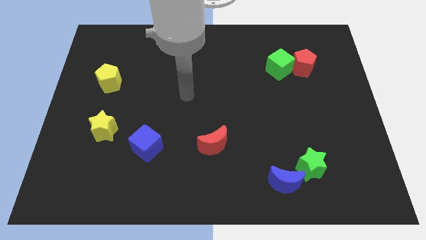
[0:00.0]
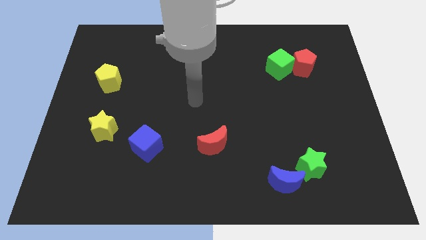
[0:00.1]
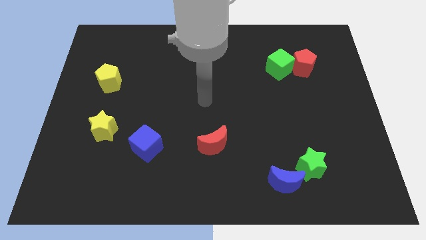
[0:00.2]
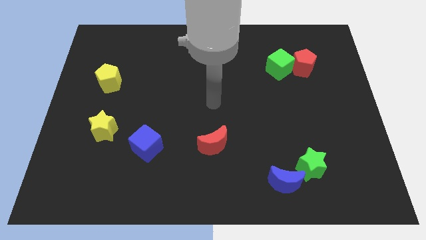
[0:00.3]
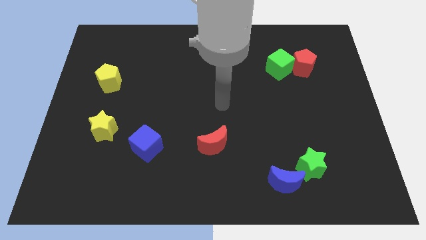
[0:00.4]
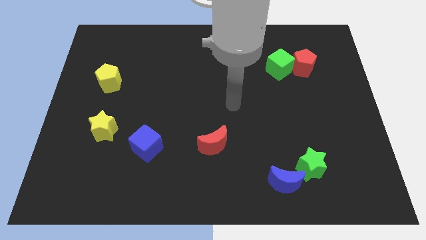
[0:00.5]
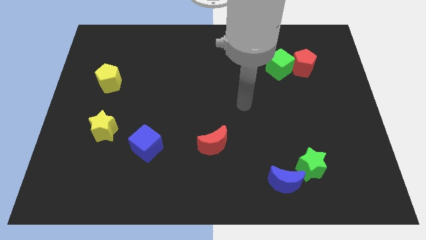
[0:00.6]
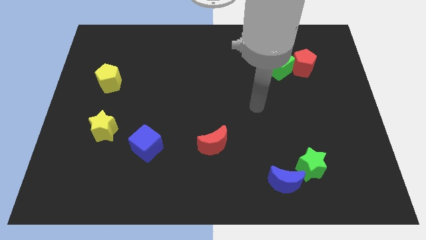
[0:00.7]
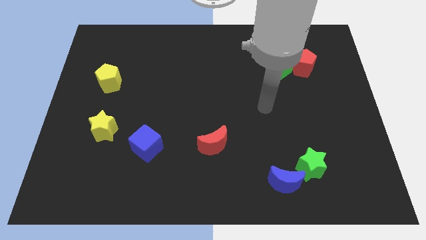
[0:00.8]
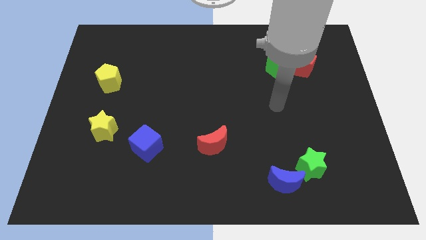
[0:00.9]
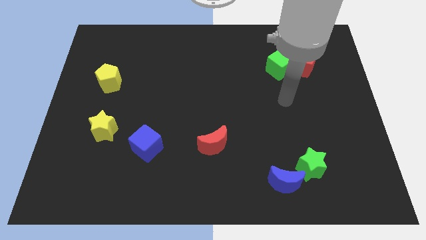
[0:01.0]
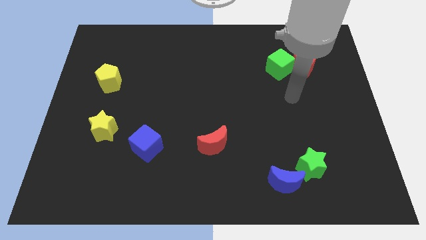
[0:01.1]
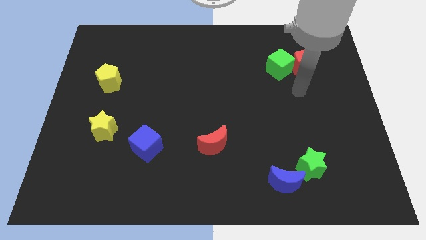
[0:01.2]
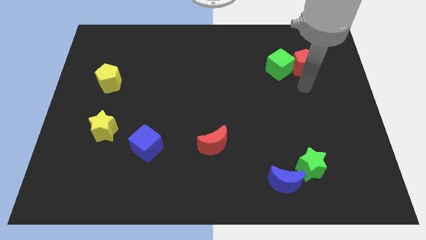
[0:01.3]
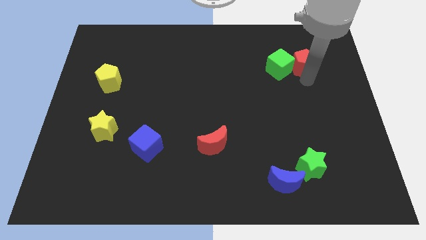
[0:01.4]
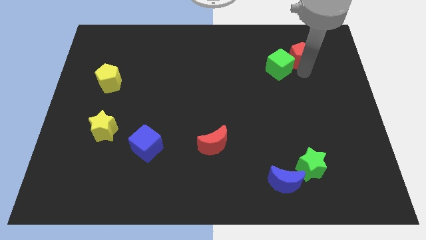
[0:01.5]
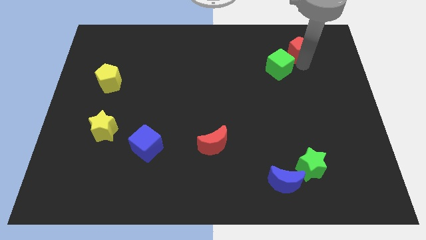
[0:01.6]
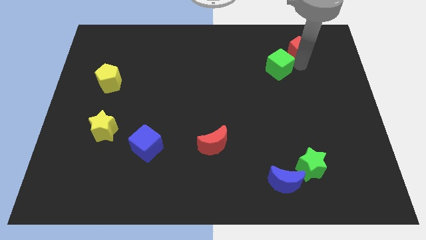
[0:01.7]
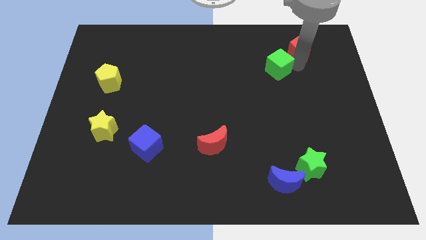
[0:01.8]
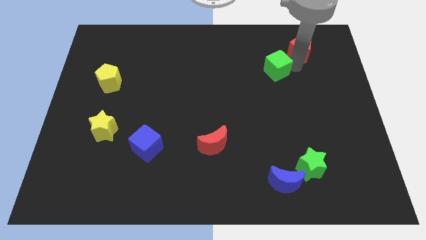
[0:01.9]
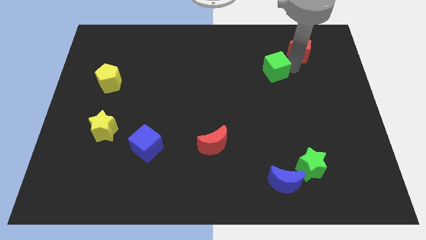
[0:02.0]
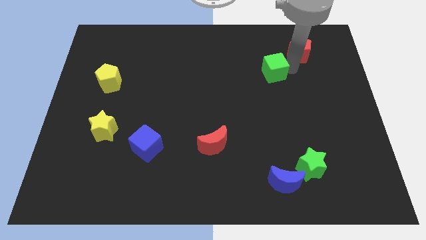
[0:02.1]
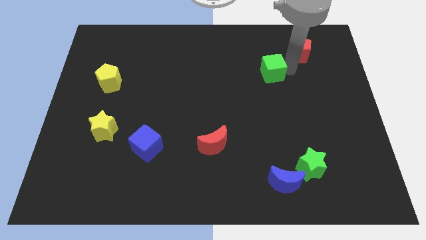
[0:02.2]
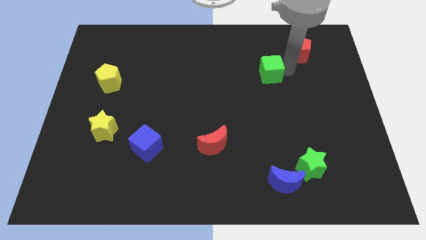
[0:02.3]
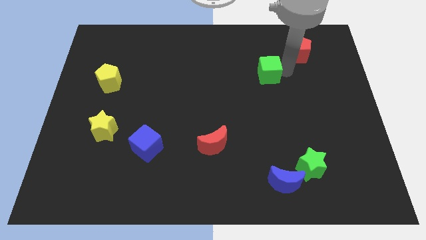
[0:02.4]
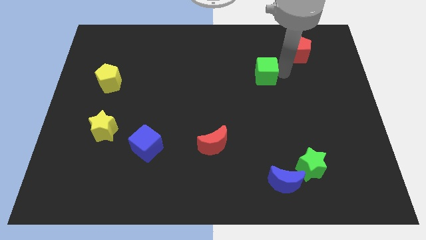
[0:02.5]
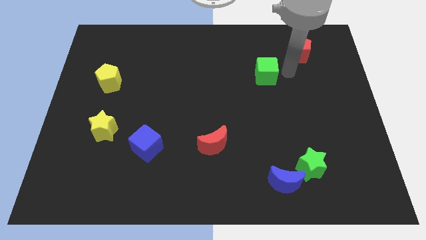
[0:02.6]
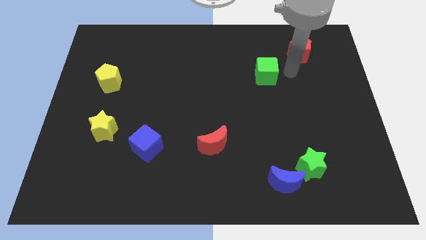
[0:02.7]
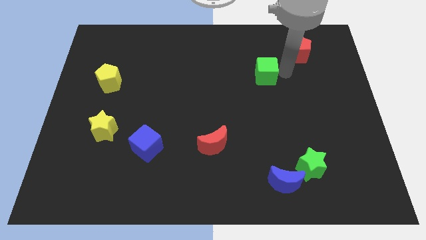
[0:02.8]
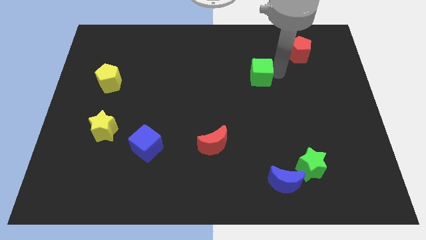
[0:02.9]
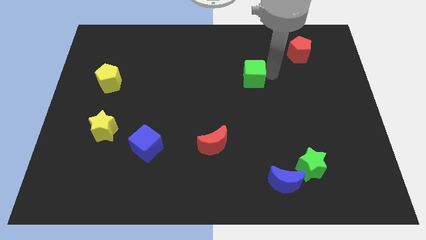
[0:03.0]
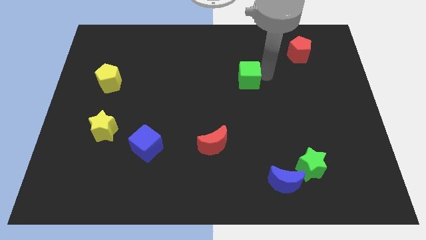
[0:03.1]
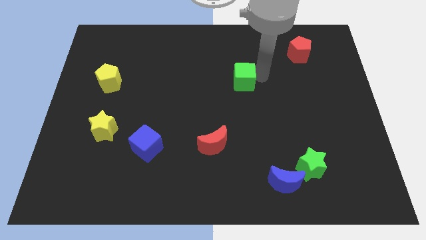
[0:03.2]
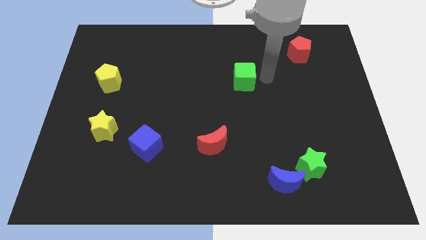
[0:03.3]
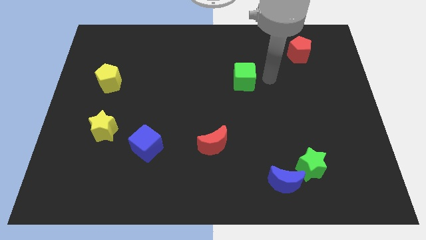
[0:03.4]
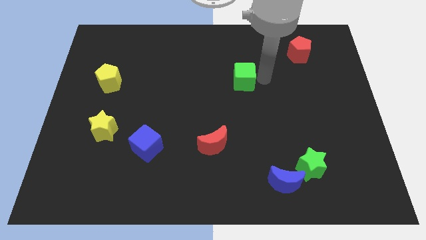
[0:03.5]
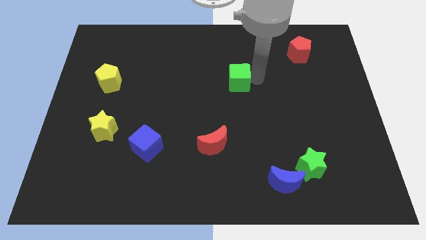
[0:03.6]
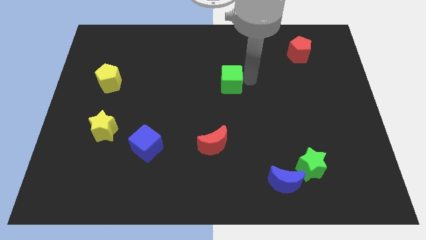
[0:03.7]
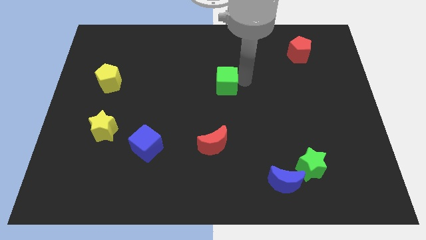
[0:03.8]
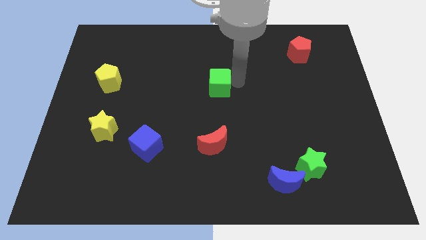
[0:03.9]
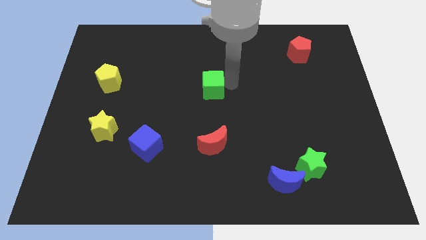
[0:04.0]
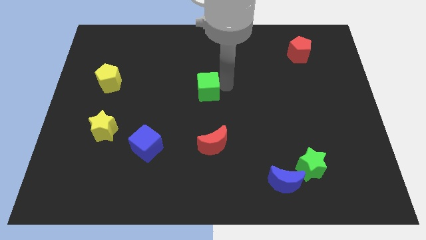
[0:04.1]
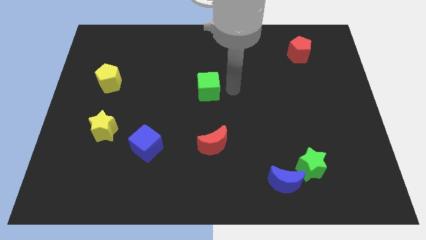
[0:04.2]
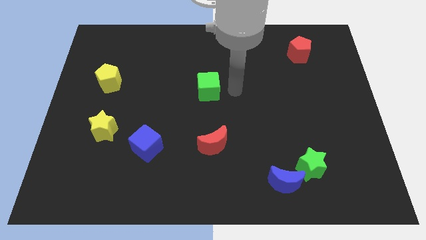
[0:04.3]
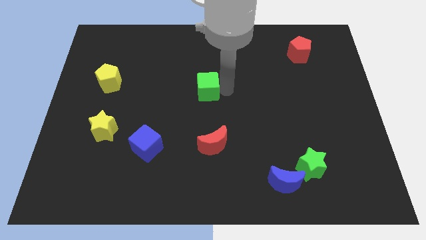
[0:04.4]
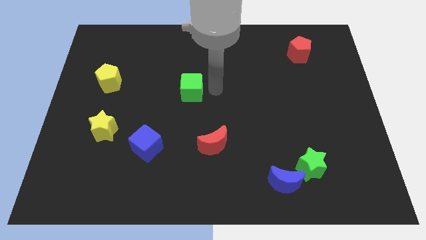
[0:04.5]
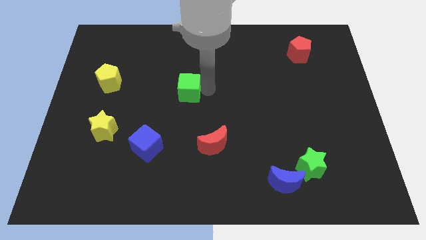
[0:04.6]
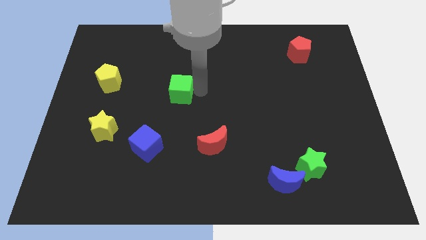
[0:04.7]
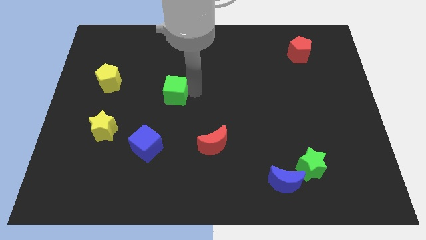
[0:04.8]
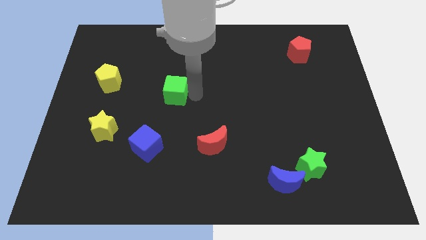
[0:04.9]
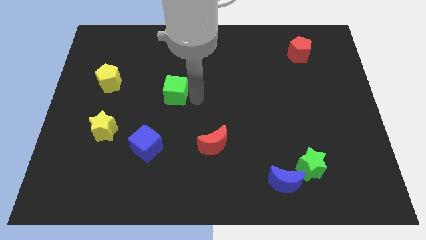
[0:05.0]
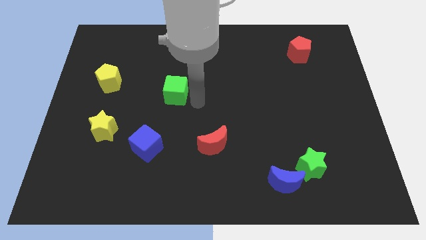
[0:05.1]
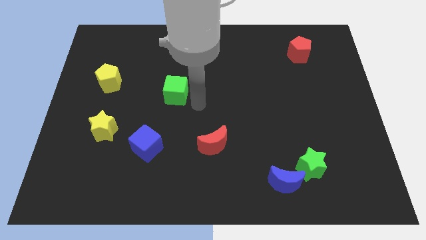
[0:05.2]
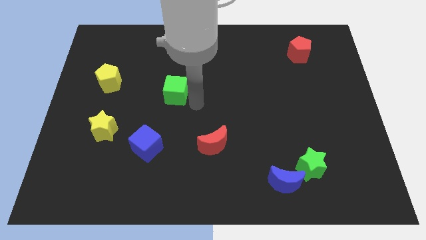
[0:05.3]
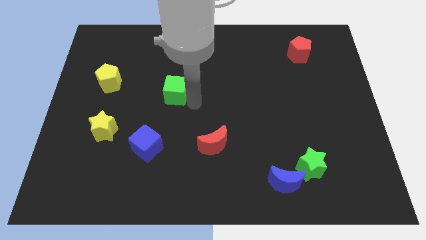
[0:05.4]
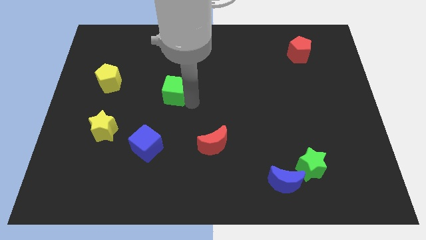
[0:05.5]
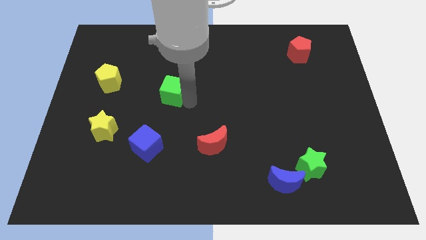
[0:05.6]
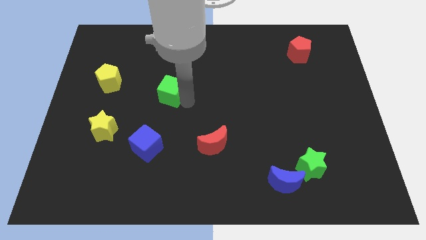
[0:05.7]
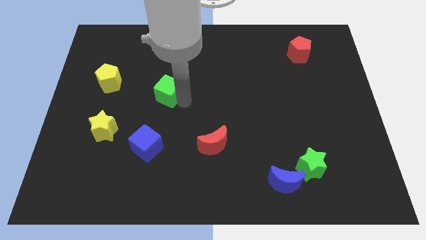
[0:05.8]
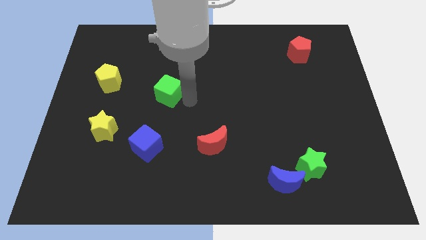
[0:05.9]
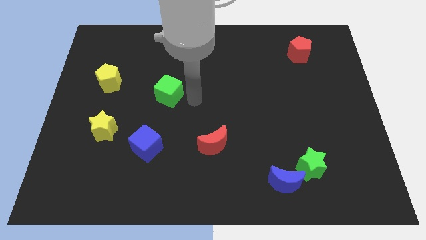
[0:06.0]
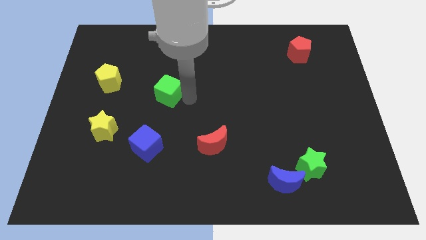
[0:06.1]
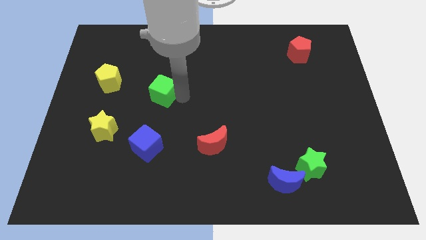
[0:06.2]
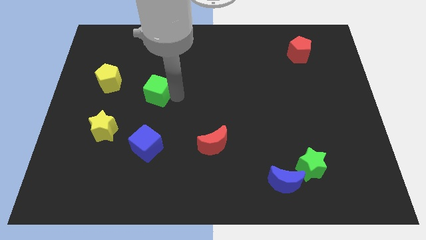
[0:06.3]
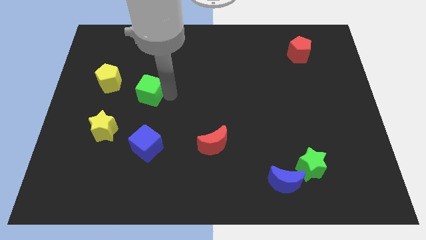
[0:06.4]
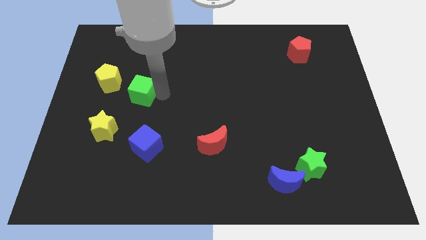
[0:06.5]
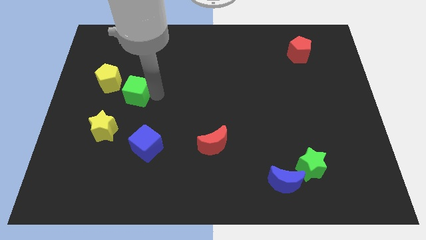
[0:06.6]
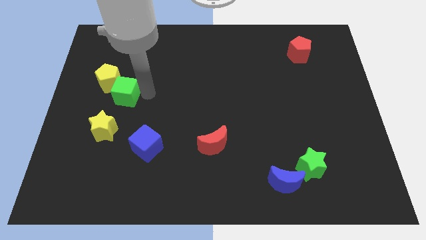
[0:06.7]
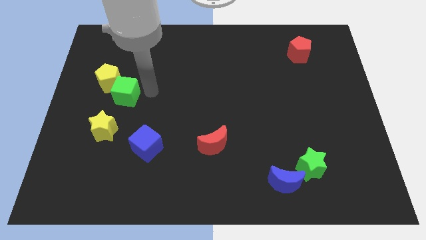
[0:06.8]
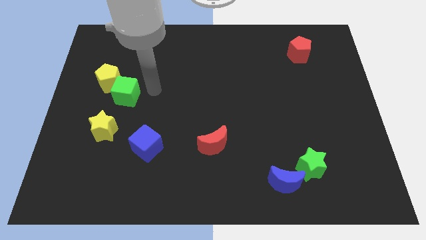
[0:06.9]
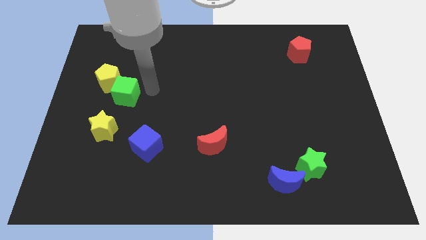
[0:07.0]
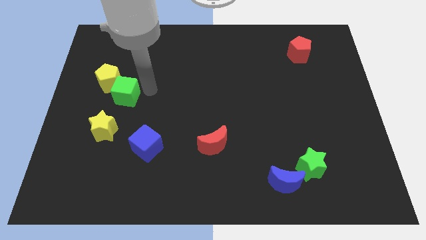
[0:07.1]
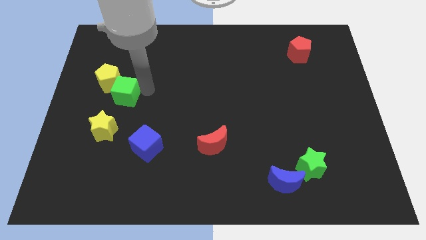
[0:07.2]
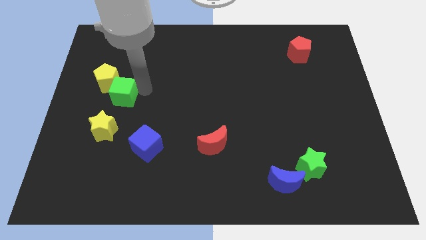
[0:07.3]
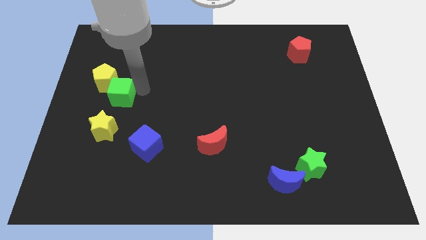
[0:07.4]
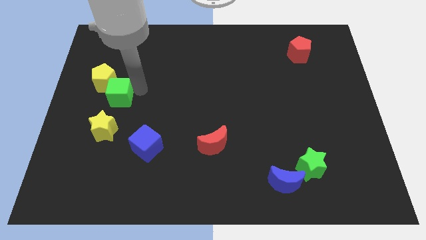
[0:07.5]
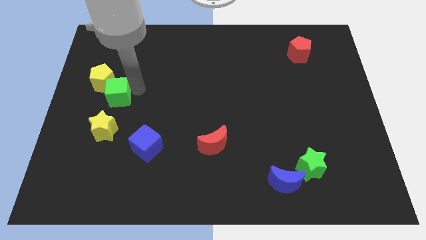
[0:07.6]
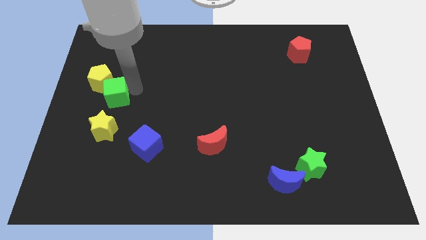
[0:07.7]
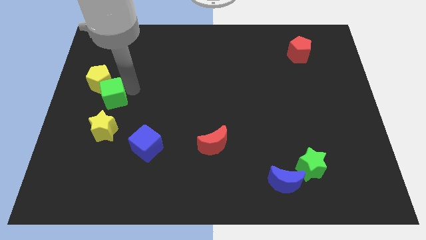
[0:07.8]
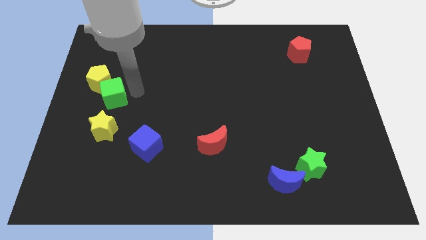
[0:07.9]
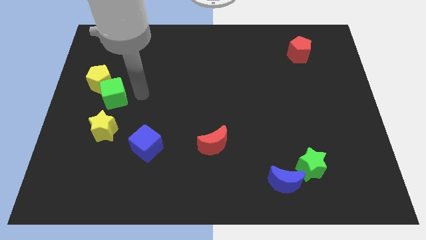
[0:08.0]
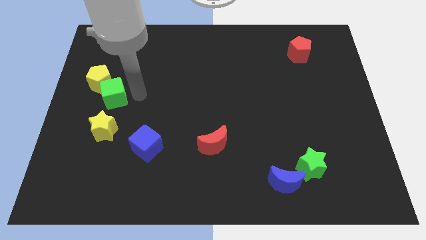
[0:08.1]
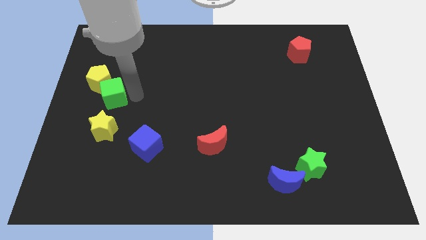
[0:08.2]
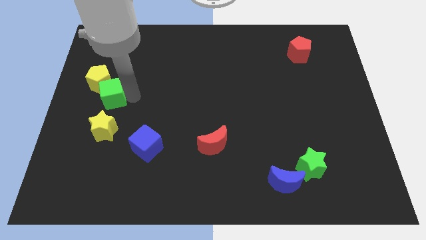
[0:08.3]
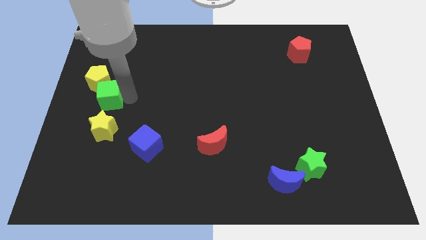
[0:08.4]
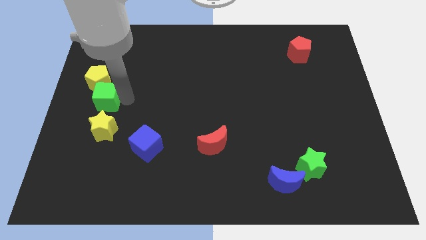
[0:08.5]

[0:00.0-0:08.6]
slide the green cube to the center left
